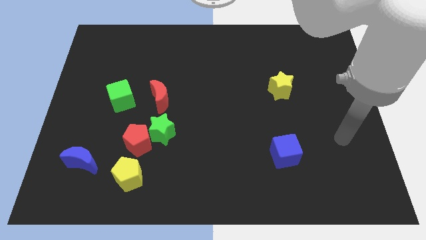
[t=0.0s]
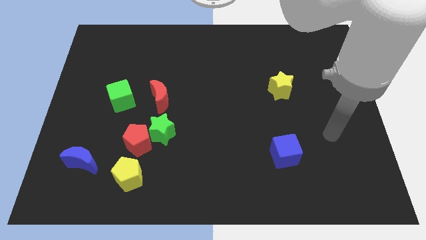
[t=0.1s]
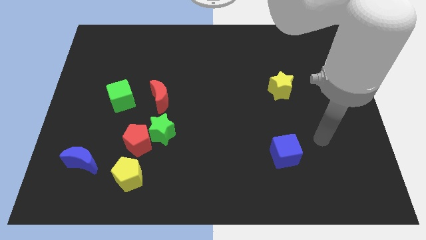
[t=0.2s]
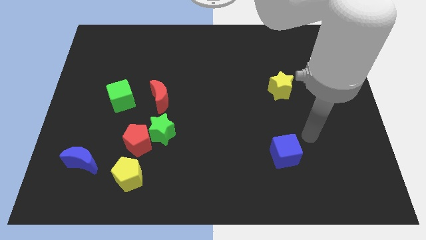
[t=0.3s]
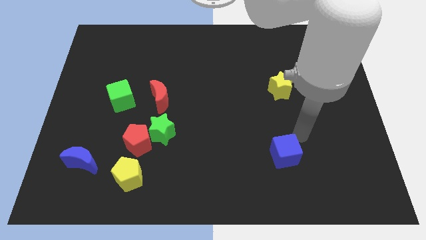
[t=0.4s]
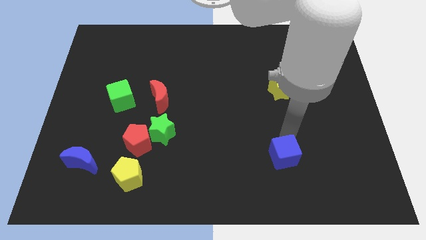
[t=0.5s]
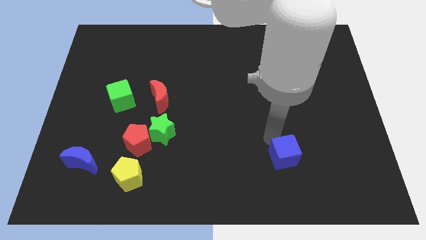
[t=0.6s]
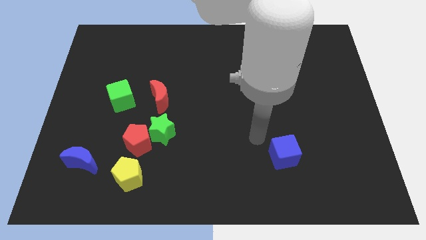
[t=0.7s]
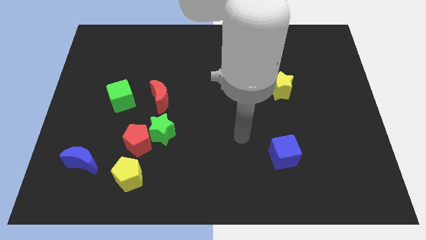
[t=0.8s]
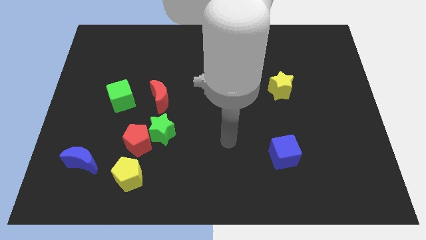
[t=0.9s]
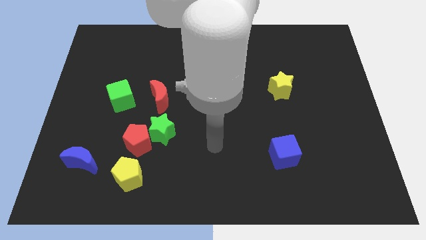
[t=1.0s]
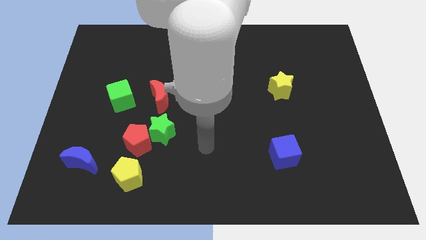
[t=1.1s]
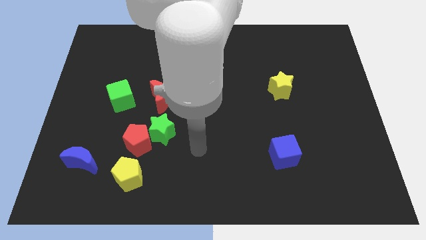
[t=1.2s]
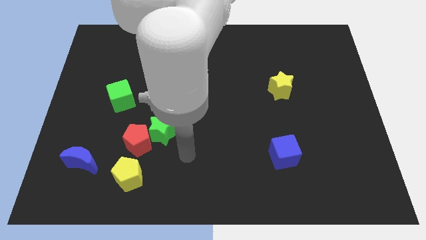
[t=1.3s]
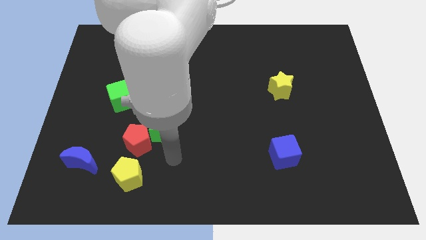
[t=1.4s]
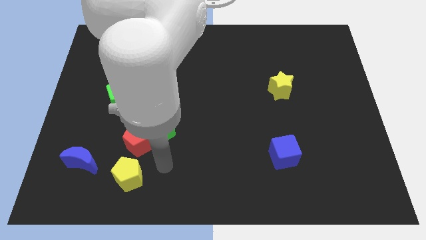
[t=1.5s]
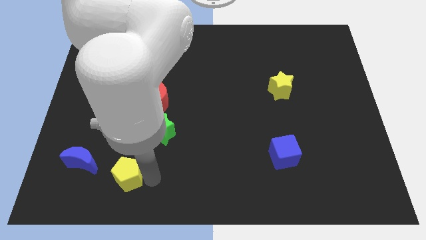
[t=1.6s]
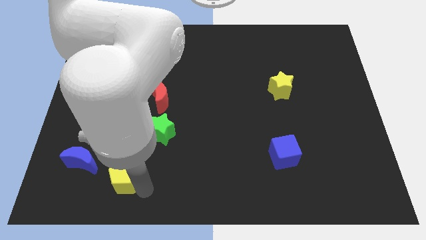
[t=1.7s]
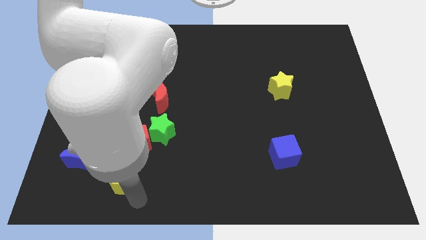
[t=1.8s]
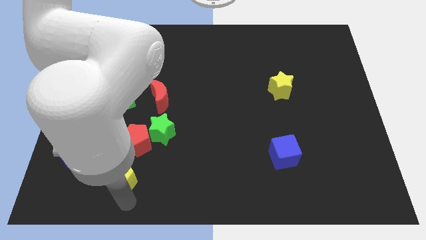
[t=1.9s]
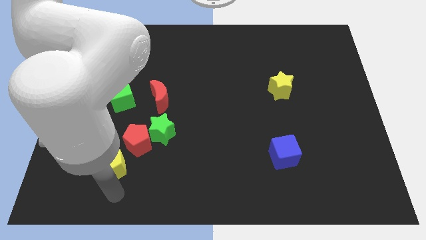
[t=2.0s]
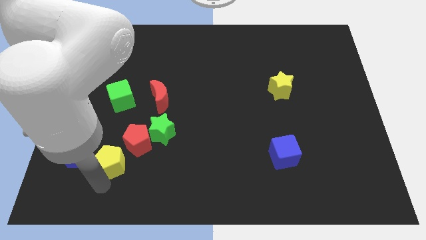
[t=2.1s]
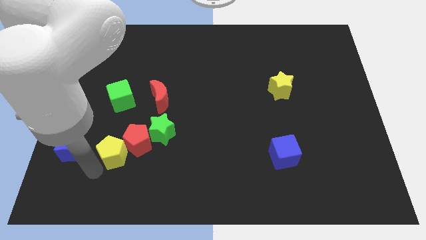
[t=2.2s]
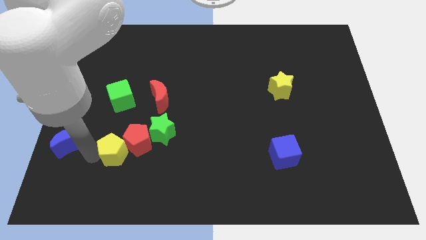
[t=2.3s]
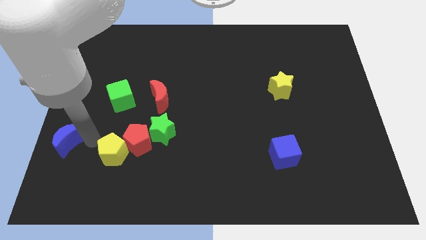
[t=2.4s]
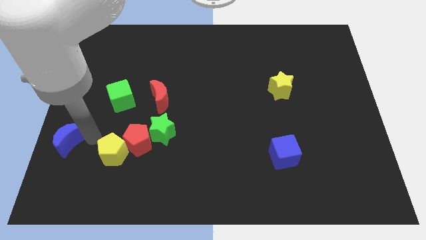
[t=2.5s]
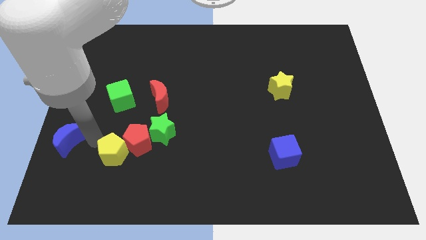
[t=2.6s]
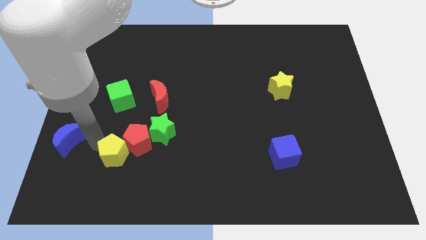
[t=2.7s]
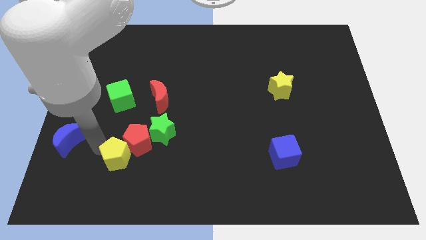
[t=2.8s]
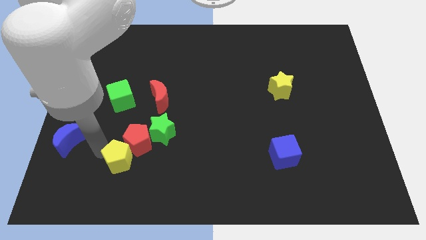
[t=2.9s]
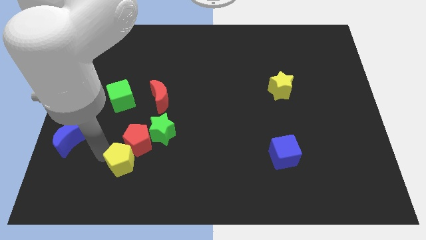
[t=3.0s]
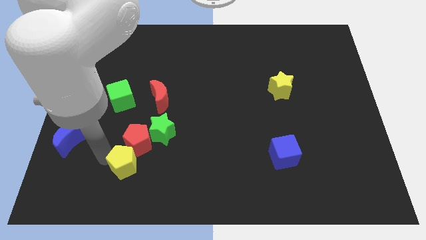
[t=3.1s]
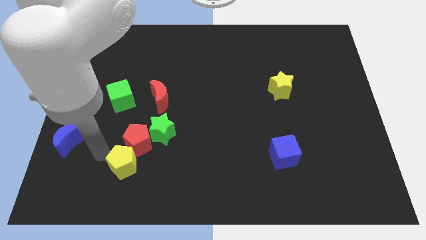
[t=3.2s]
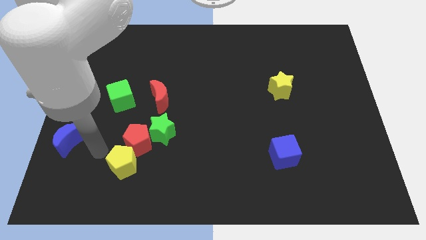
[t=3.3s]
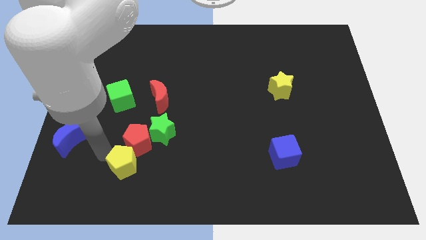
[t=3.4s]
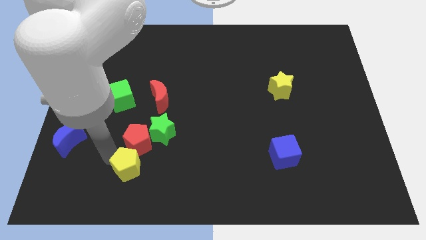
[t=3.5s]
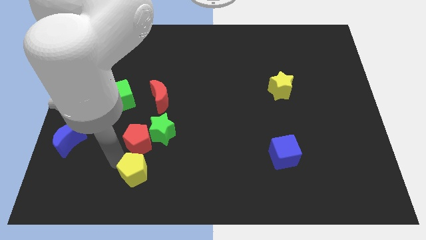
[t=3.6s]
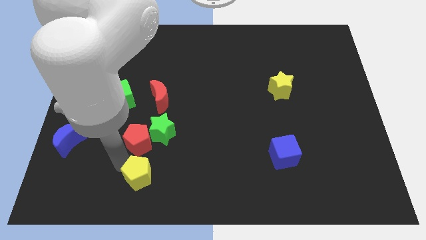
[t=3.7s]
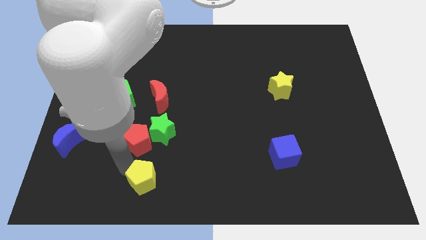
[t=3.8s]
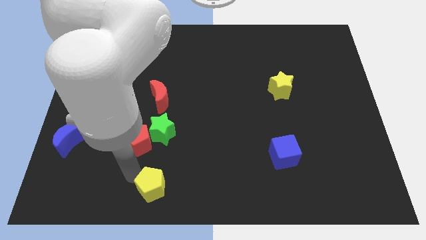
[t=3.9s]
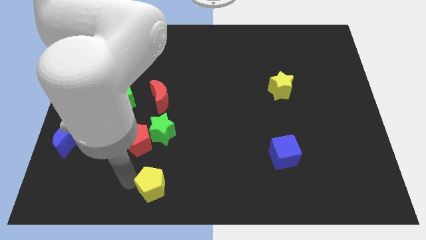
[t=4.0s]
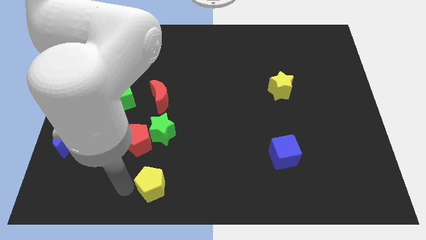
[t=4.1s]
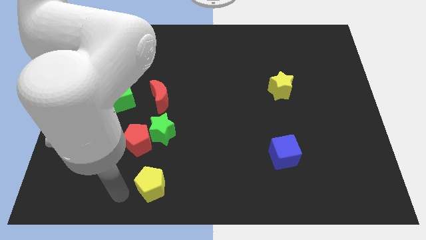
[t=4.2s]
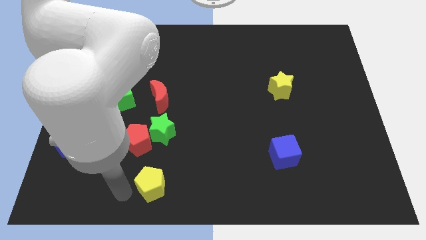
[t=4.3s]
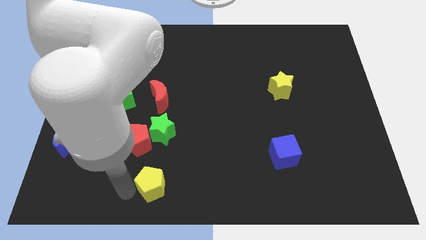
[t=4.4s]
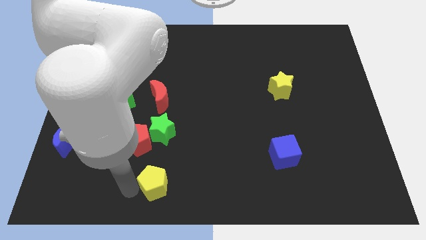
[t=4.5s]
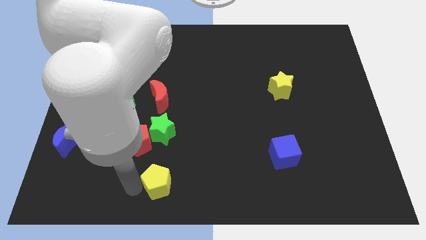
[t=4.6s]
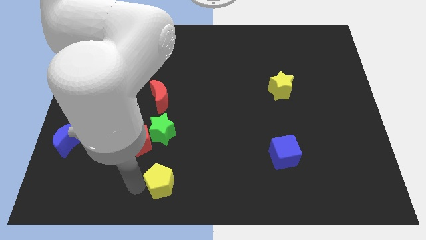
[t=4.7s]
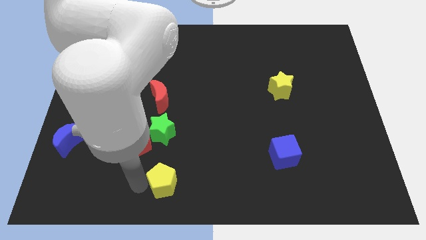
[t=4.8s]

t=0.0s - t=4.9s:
move the yellow pentagon to the right somewhat

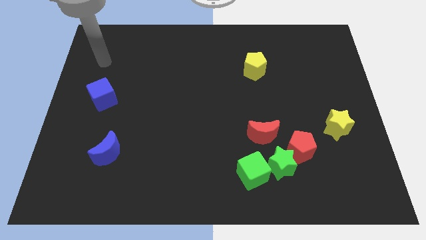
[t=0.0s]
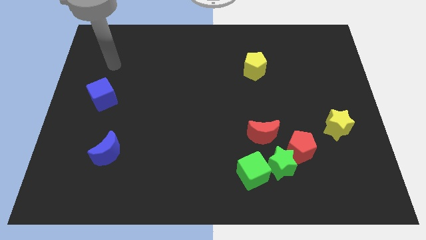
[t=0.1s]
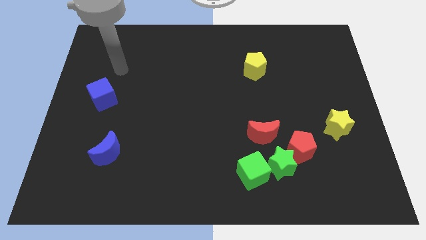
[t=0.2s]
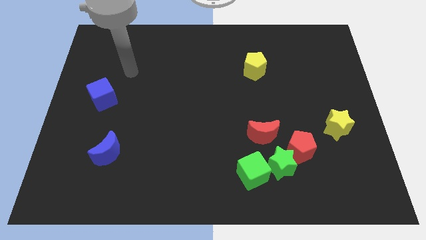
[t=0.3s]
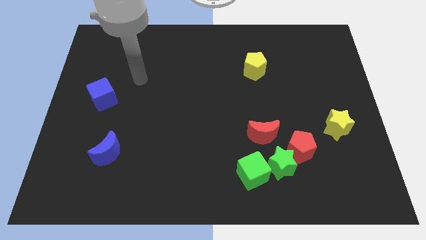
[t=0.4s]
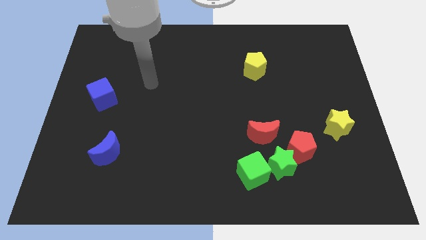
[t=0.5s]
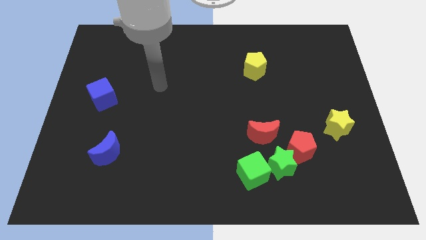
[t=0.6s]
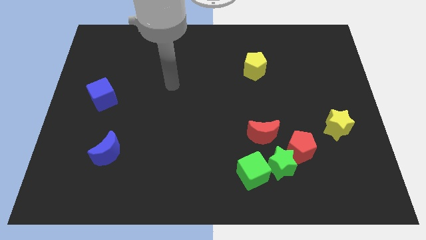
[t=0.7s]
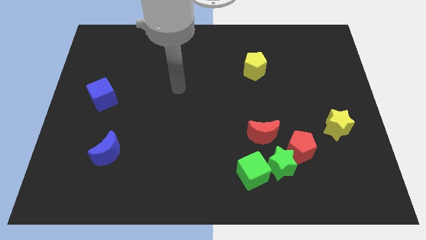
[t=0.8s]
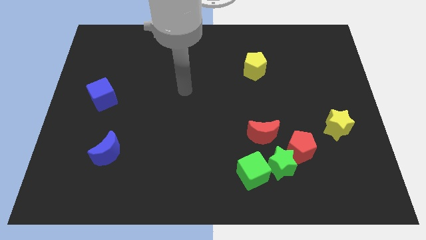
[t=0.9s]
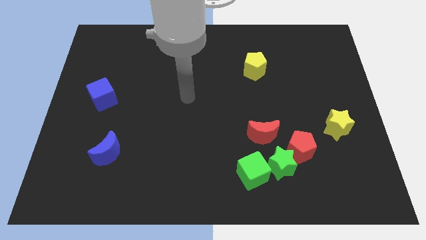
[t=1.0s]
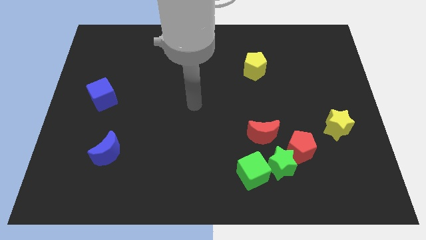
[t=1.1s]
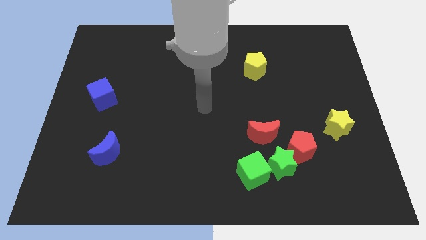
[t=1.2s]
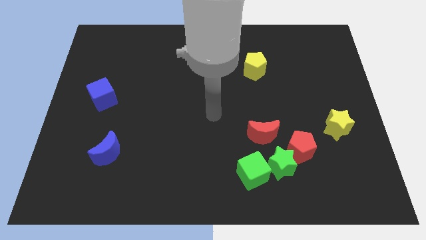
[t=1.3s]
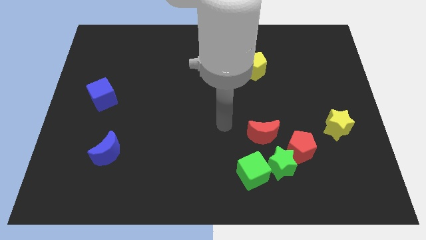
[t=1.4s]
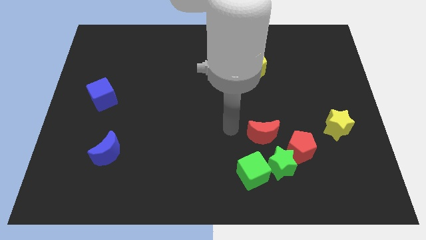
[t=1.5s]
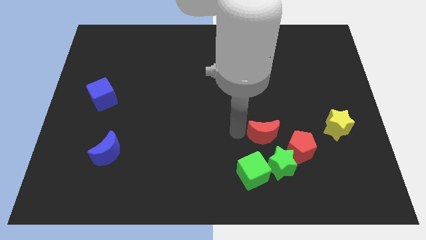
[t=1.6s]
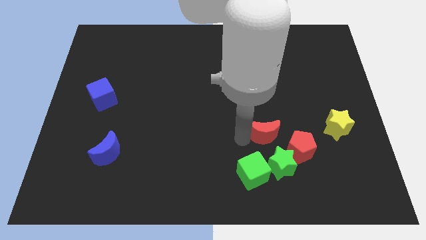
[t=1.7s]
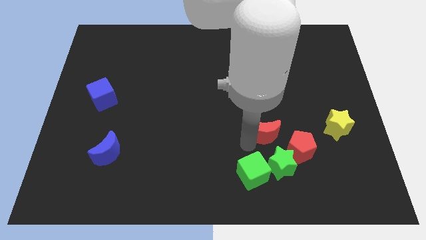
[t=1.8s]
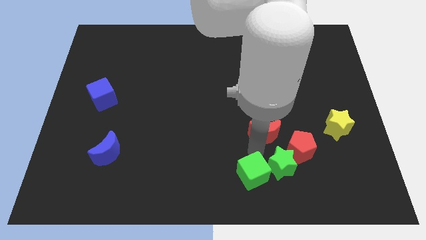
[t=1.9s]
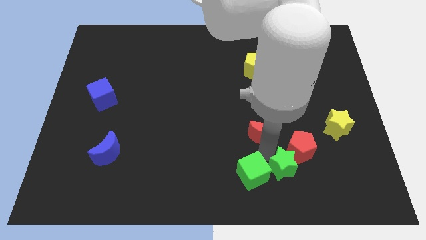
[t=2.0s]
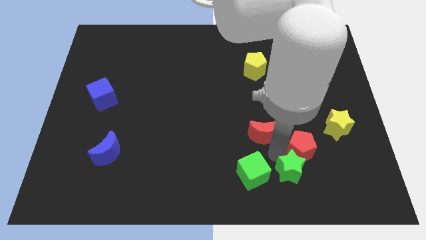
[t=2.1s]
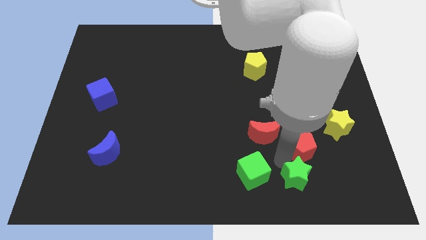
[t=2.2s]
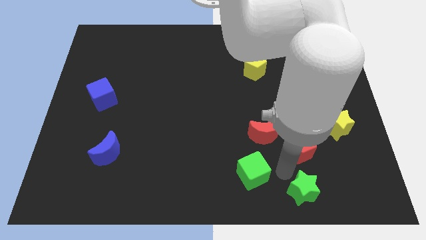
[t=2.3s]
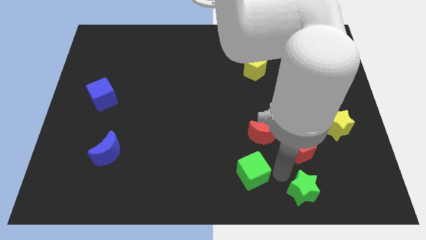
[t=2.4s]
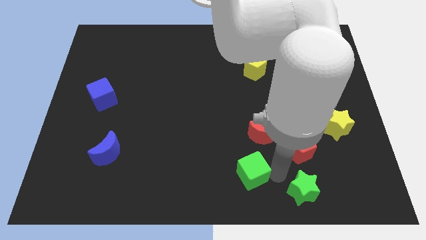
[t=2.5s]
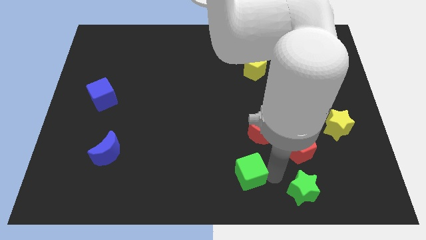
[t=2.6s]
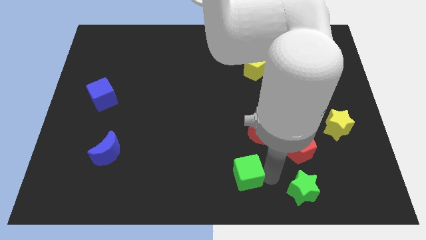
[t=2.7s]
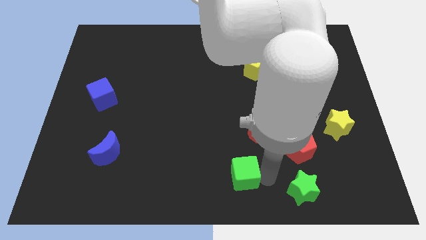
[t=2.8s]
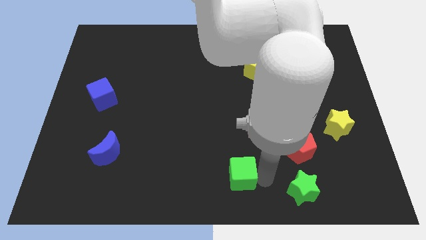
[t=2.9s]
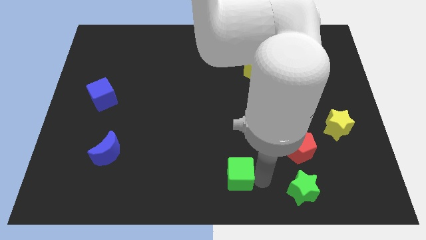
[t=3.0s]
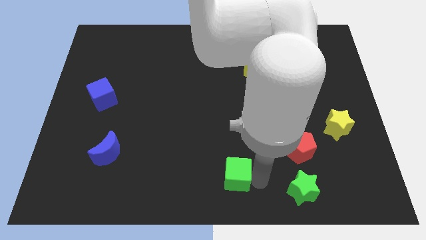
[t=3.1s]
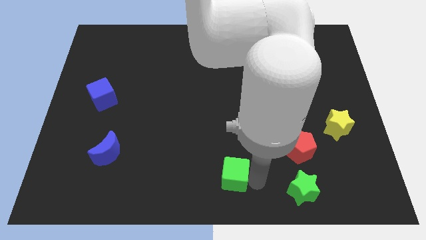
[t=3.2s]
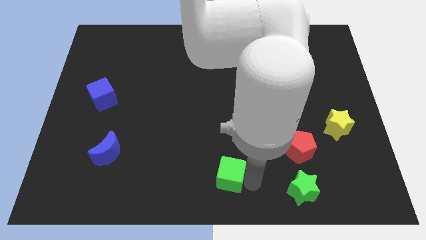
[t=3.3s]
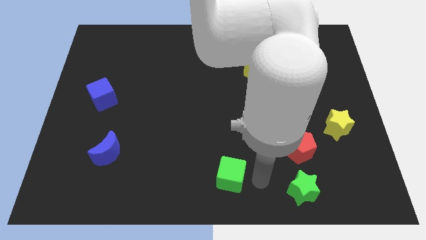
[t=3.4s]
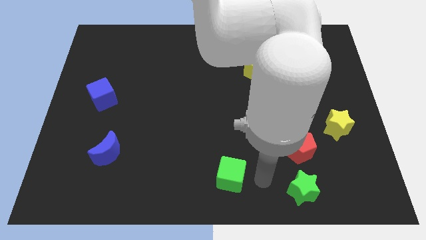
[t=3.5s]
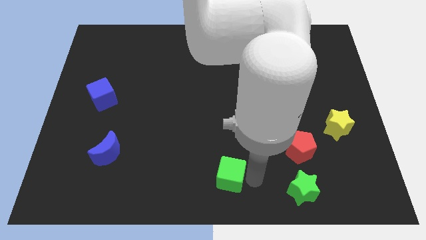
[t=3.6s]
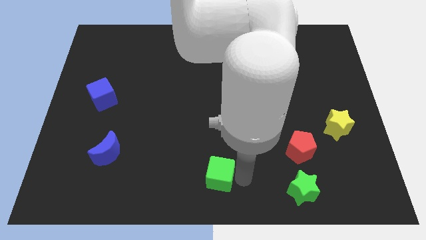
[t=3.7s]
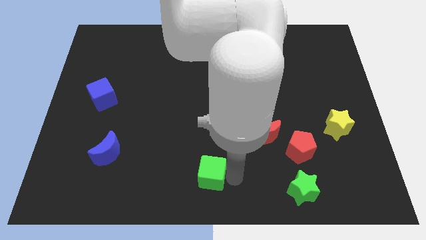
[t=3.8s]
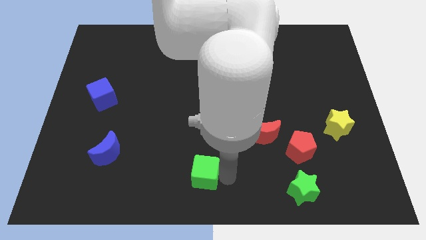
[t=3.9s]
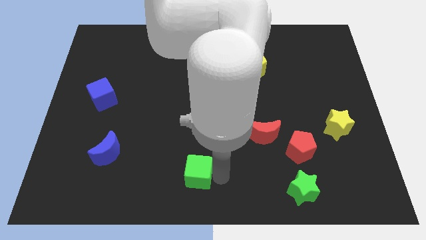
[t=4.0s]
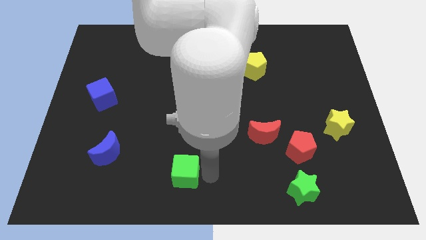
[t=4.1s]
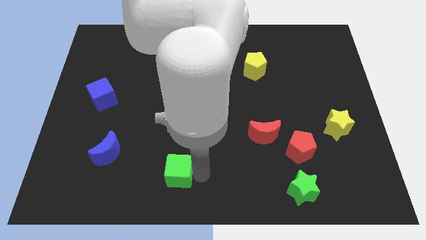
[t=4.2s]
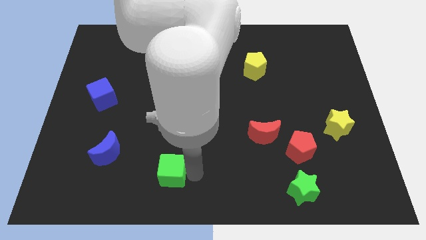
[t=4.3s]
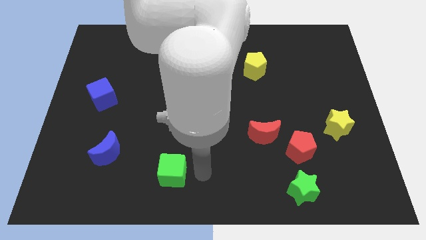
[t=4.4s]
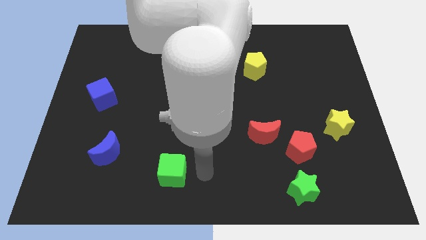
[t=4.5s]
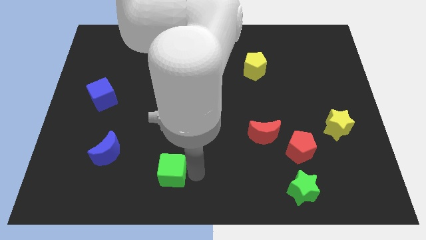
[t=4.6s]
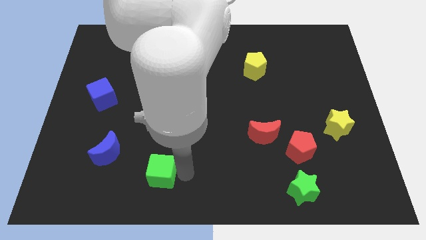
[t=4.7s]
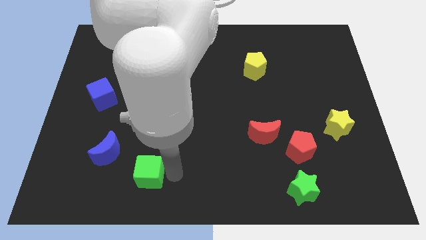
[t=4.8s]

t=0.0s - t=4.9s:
move the green cube left
